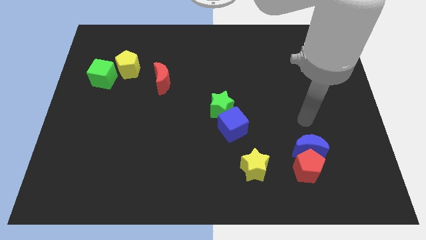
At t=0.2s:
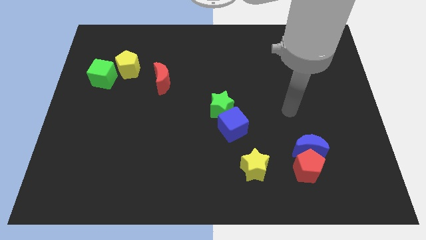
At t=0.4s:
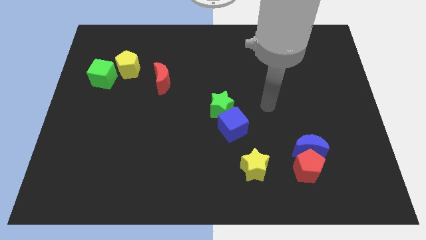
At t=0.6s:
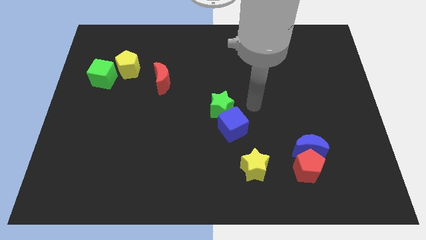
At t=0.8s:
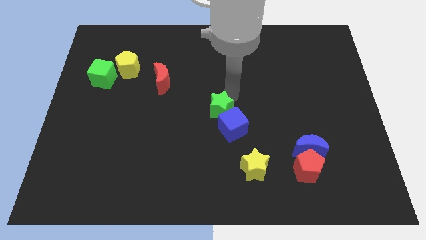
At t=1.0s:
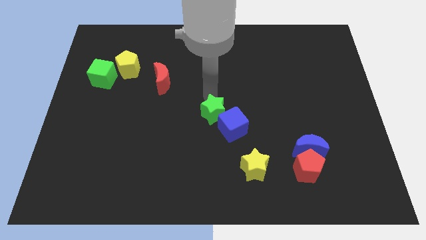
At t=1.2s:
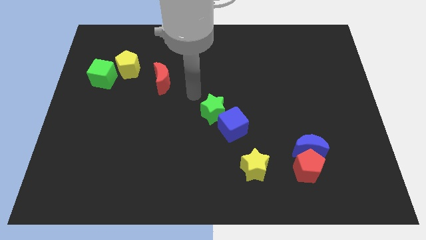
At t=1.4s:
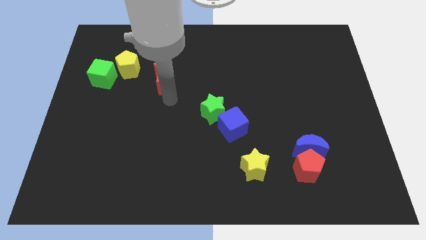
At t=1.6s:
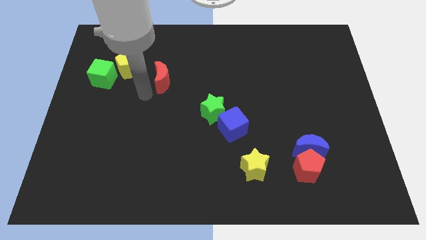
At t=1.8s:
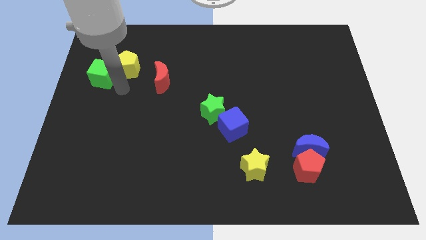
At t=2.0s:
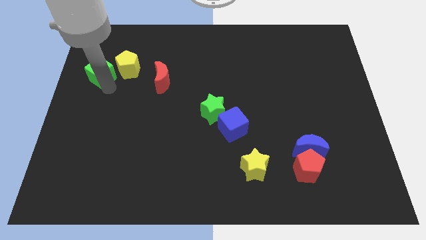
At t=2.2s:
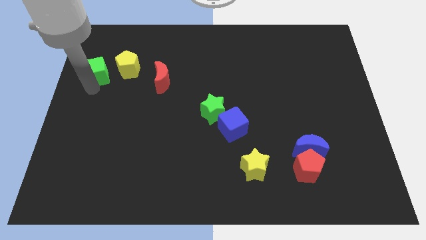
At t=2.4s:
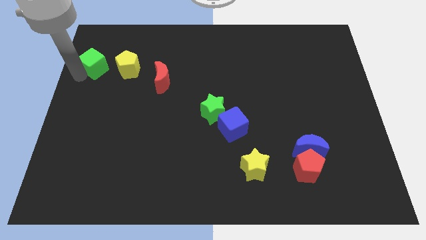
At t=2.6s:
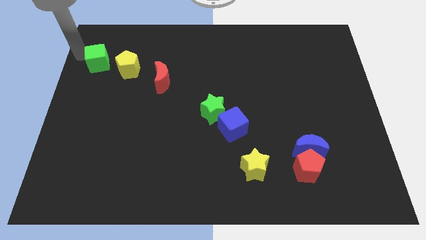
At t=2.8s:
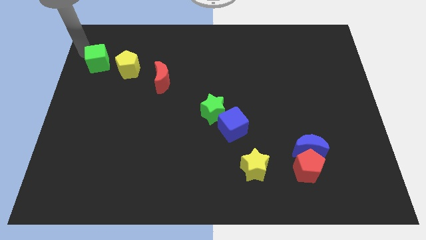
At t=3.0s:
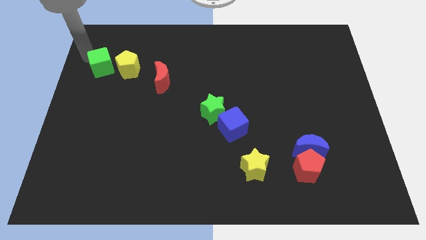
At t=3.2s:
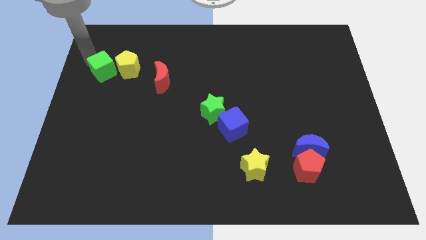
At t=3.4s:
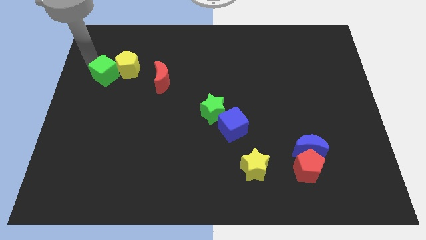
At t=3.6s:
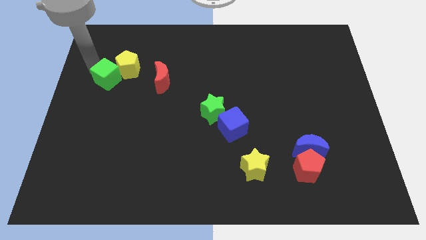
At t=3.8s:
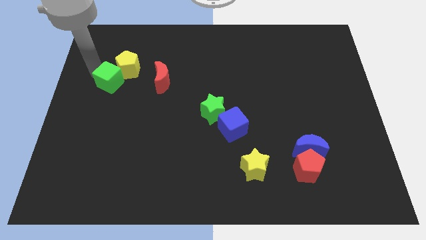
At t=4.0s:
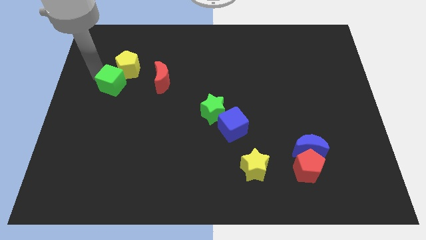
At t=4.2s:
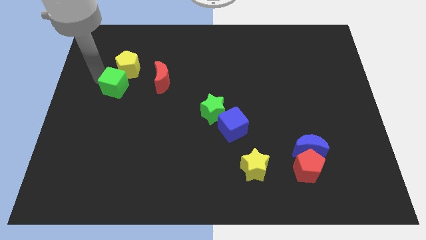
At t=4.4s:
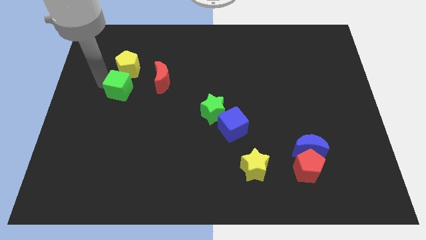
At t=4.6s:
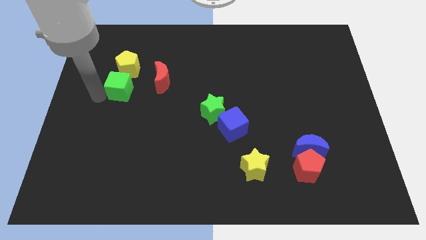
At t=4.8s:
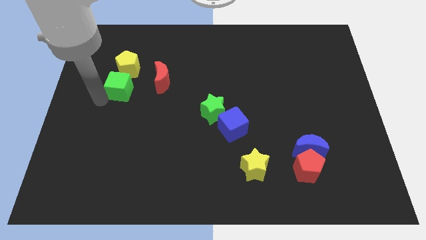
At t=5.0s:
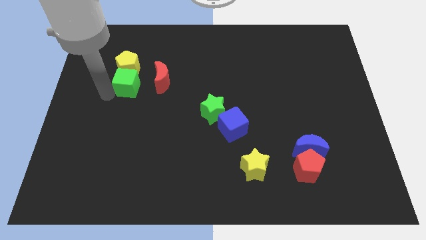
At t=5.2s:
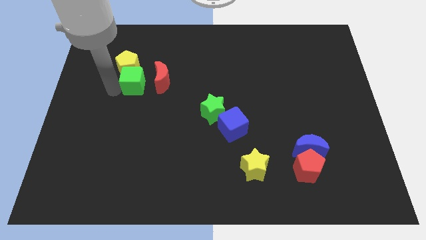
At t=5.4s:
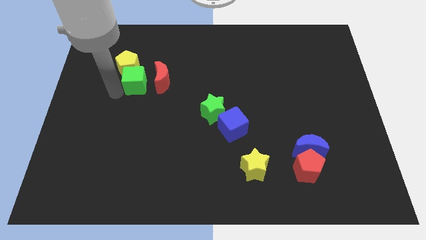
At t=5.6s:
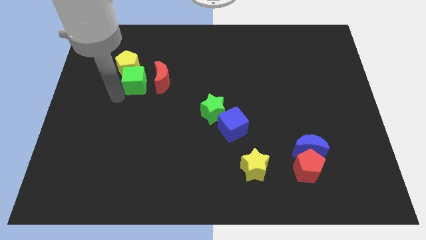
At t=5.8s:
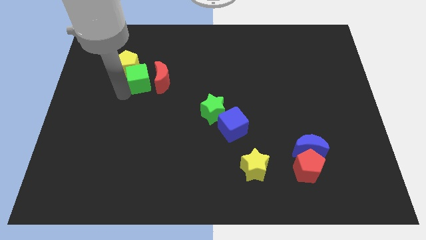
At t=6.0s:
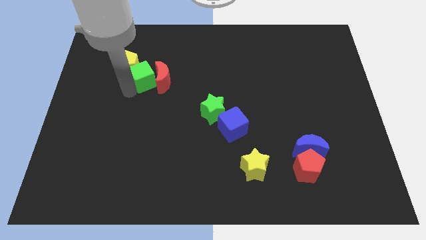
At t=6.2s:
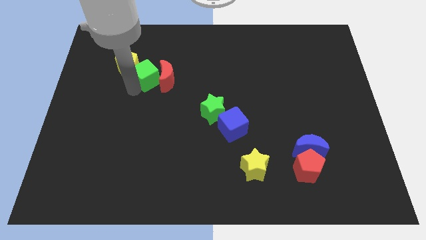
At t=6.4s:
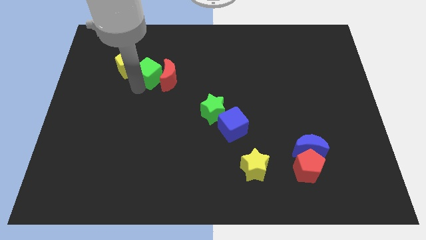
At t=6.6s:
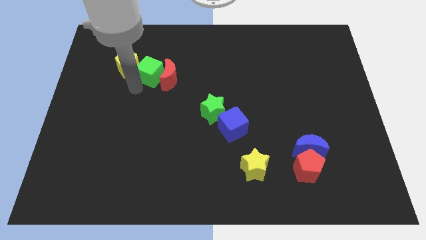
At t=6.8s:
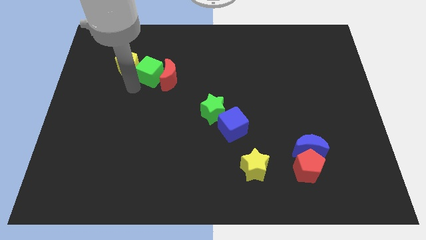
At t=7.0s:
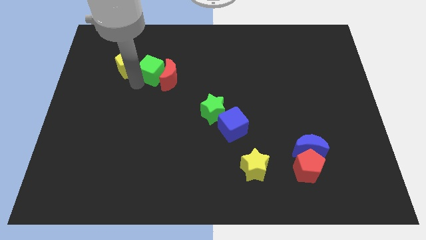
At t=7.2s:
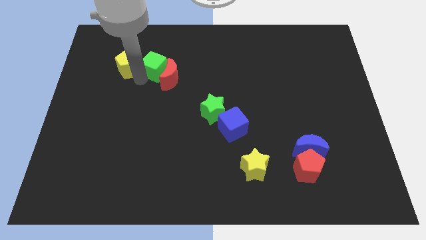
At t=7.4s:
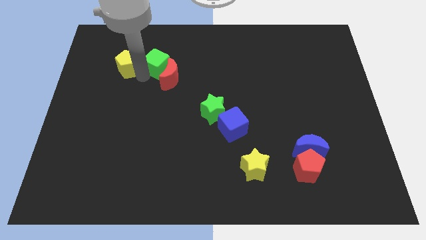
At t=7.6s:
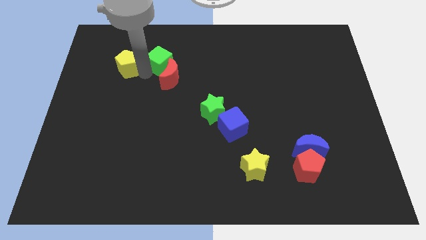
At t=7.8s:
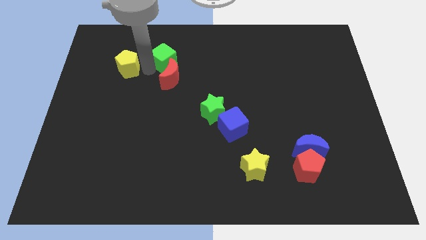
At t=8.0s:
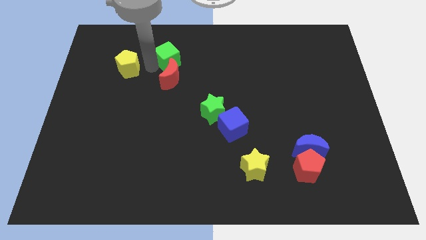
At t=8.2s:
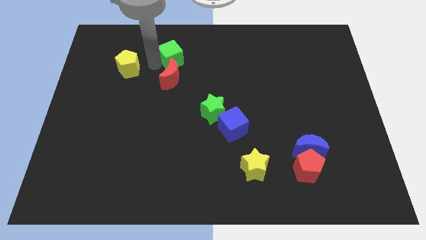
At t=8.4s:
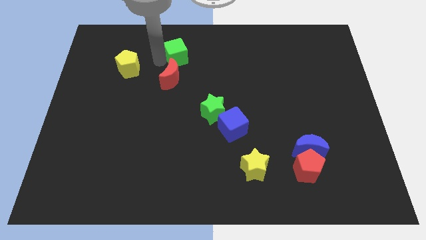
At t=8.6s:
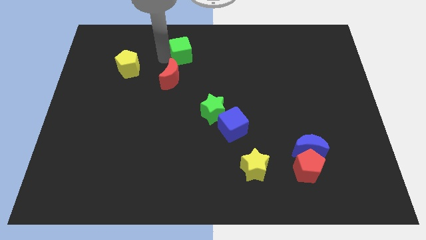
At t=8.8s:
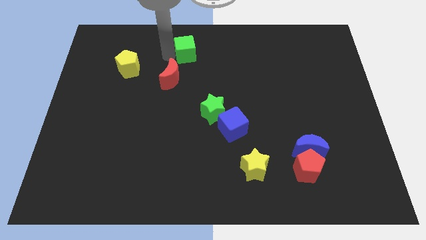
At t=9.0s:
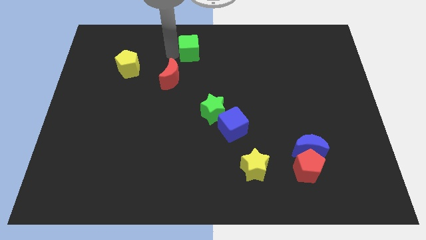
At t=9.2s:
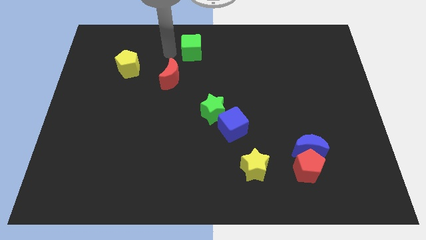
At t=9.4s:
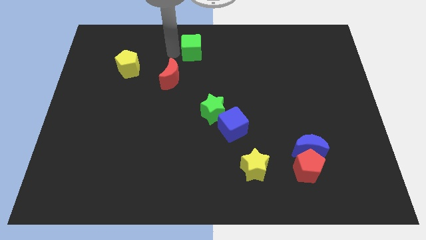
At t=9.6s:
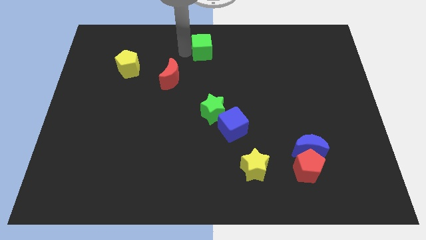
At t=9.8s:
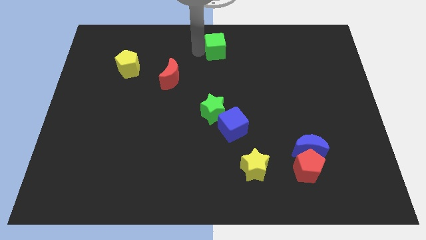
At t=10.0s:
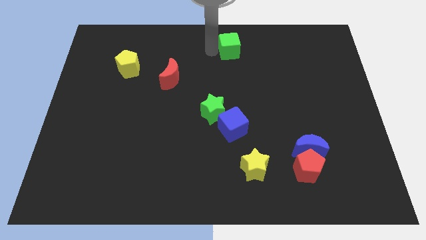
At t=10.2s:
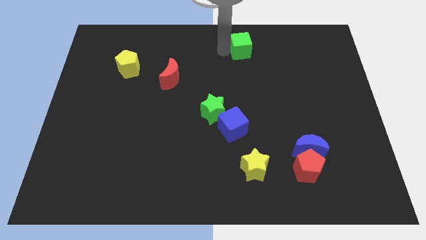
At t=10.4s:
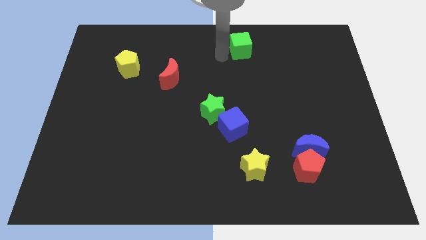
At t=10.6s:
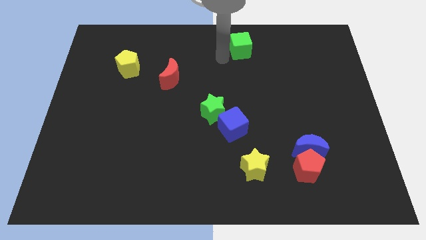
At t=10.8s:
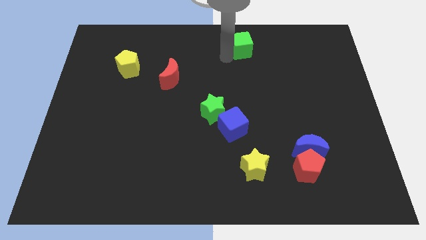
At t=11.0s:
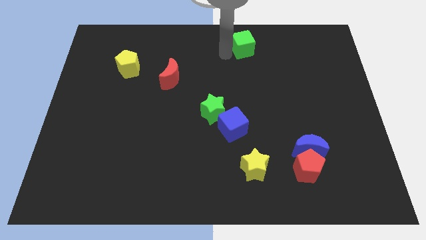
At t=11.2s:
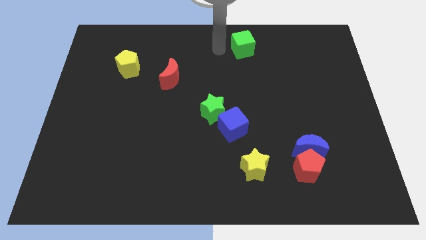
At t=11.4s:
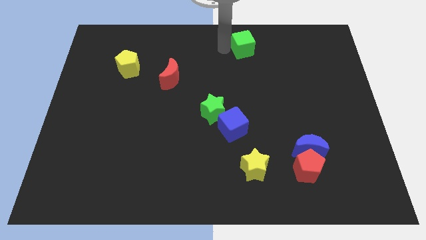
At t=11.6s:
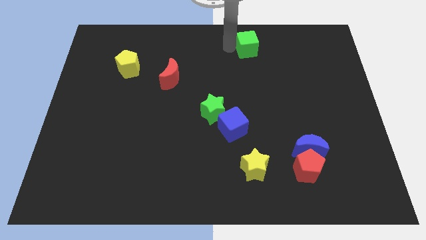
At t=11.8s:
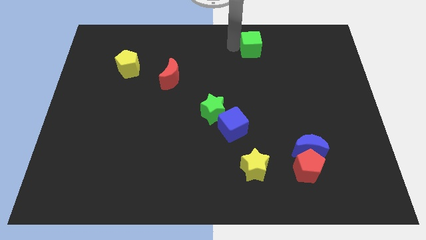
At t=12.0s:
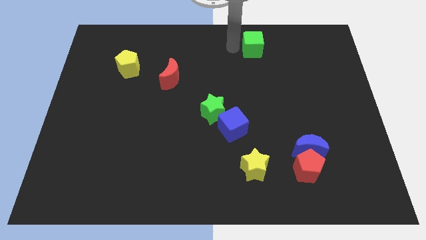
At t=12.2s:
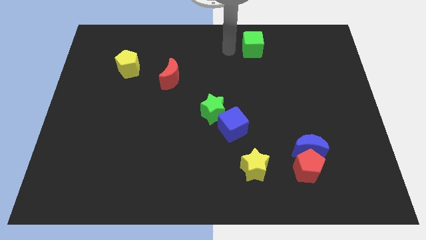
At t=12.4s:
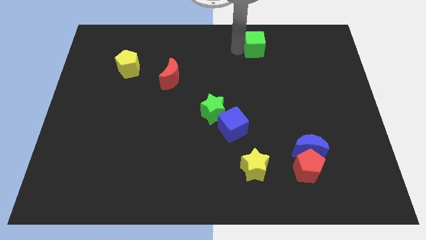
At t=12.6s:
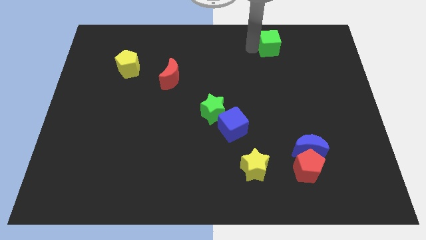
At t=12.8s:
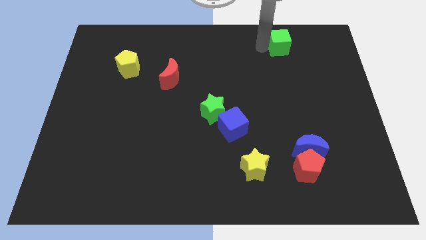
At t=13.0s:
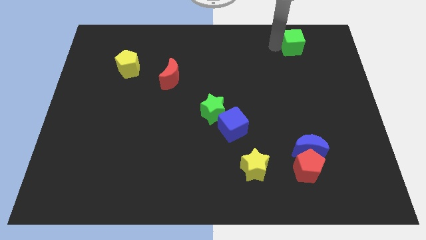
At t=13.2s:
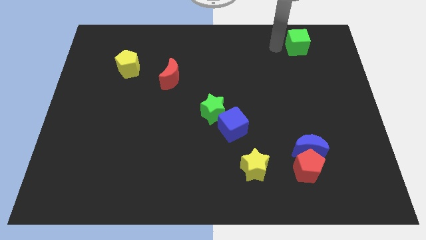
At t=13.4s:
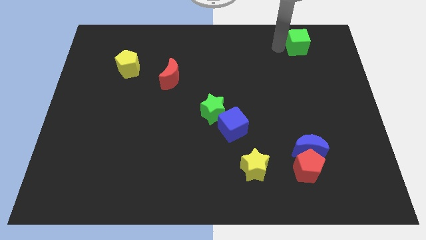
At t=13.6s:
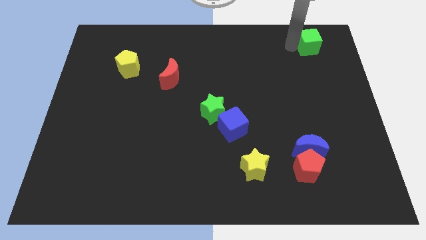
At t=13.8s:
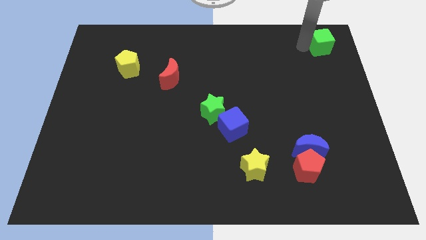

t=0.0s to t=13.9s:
put the green cube to the top right
